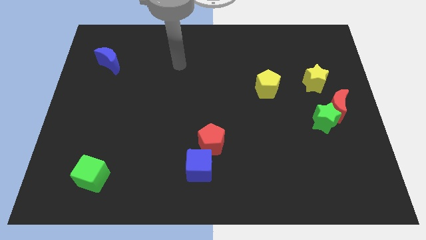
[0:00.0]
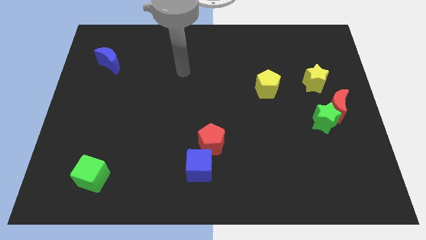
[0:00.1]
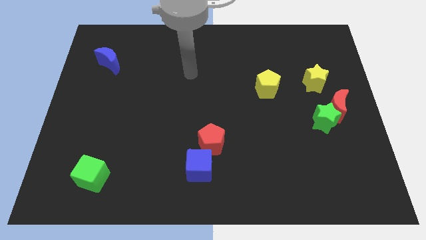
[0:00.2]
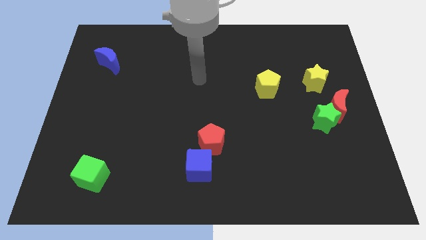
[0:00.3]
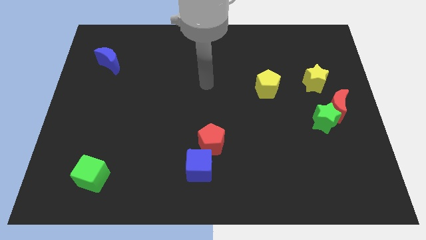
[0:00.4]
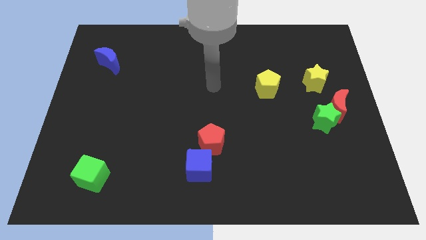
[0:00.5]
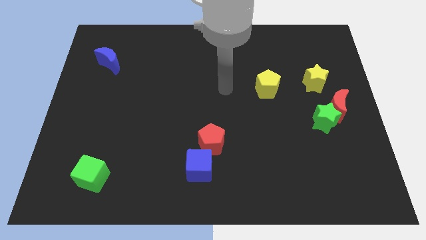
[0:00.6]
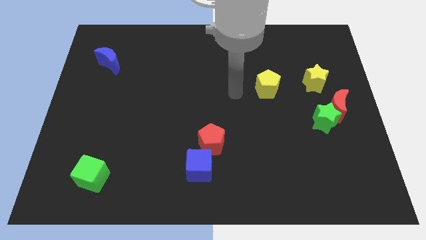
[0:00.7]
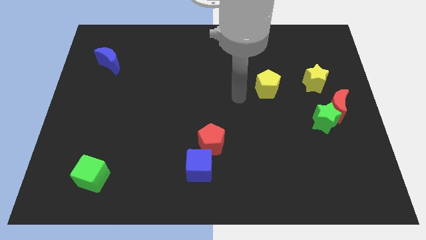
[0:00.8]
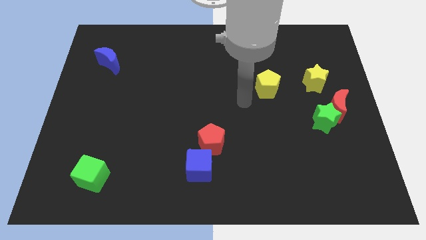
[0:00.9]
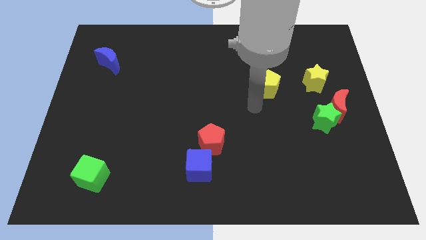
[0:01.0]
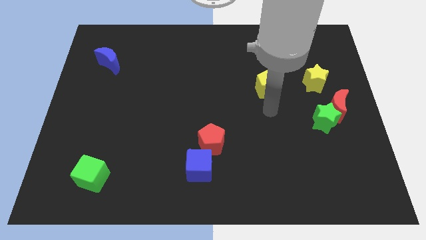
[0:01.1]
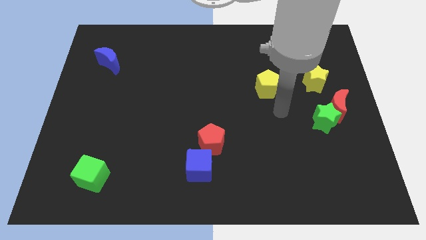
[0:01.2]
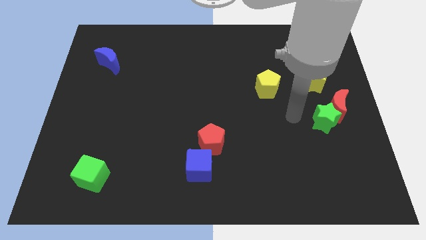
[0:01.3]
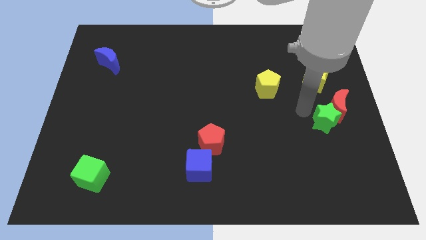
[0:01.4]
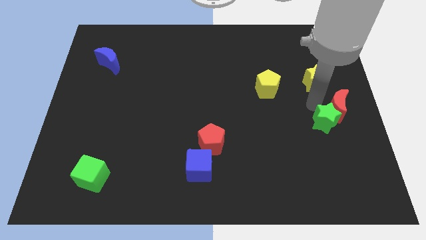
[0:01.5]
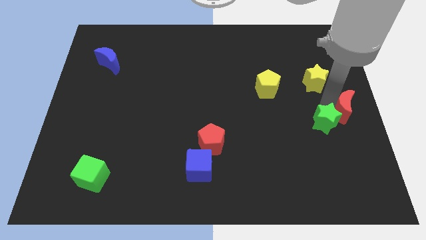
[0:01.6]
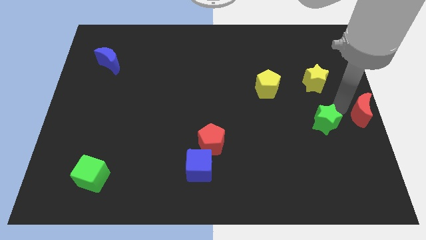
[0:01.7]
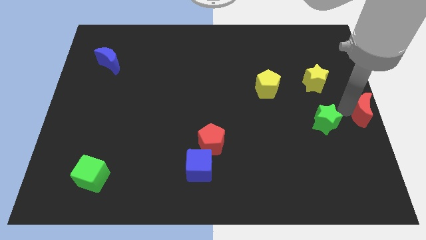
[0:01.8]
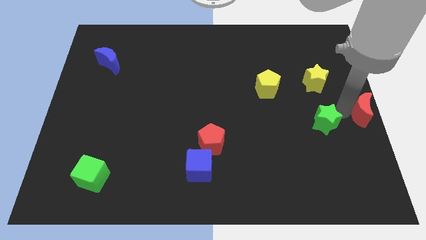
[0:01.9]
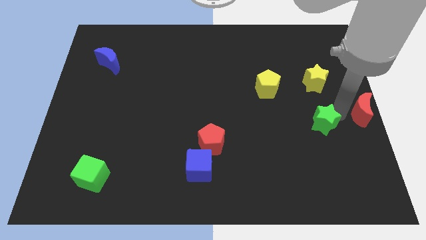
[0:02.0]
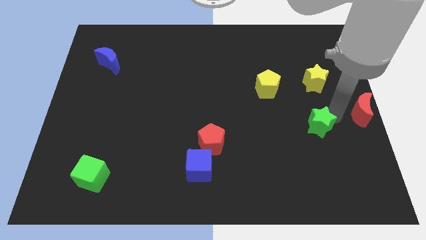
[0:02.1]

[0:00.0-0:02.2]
separate the green star from the red moon

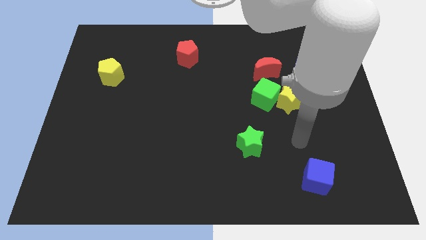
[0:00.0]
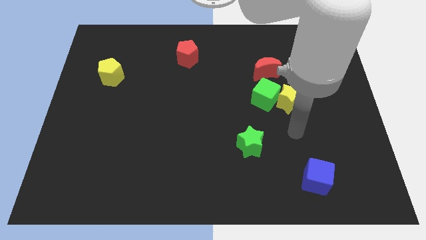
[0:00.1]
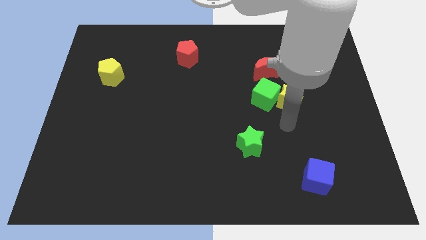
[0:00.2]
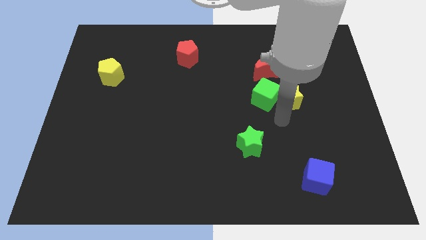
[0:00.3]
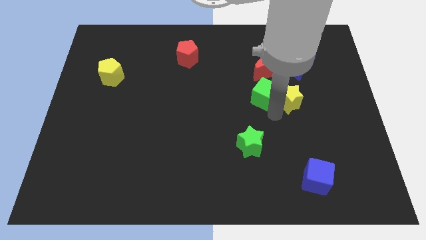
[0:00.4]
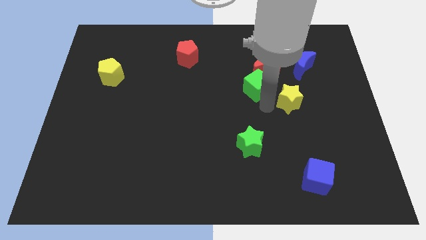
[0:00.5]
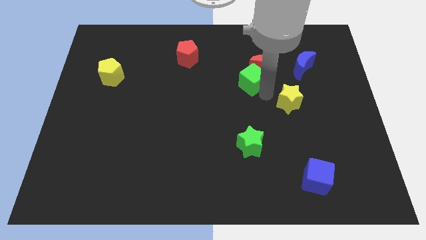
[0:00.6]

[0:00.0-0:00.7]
pull the yellow star apart from the green cube

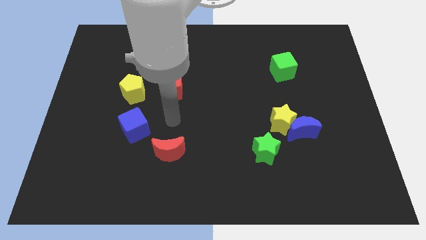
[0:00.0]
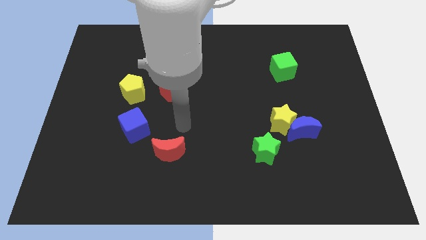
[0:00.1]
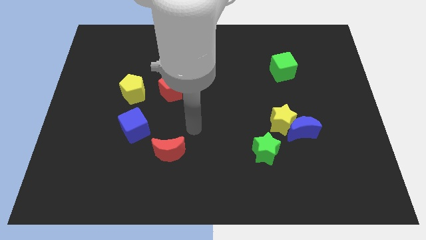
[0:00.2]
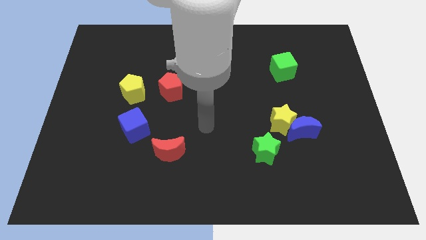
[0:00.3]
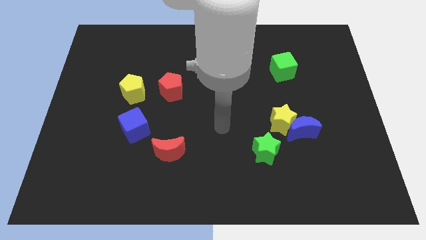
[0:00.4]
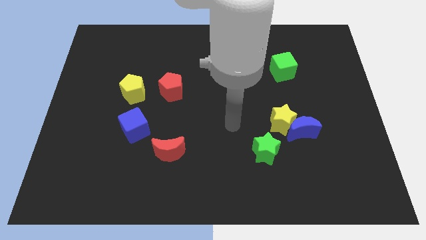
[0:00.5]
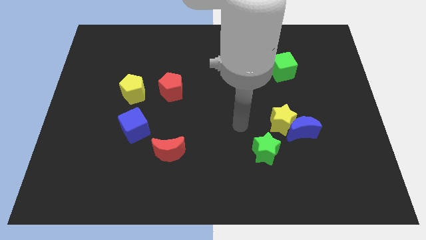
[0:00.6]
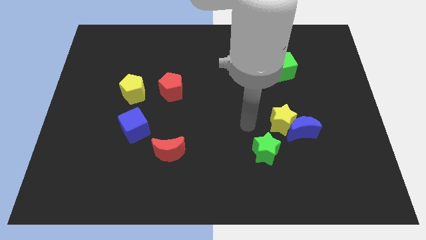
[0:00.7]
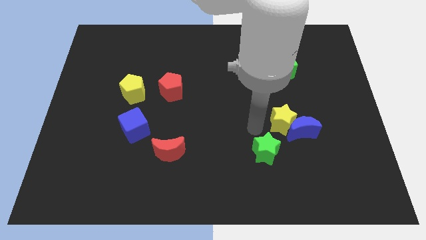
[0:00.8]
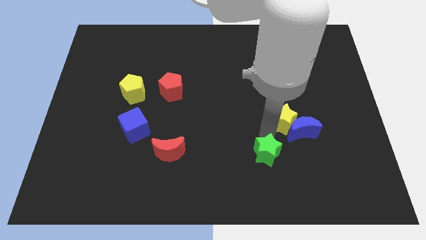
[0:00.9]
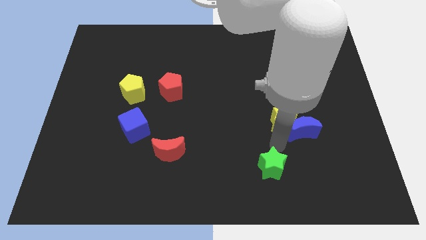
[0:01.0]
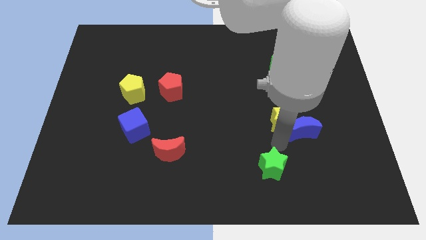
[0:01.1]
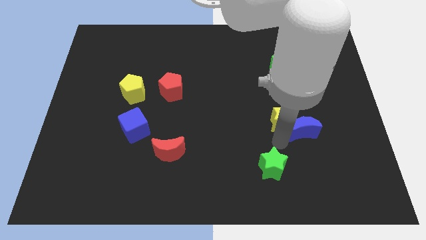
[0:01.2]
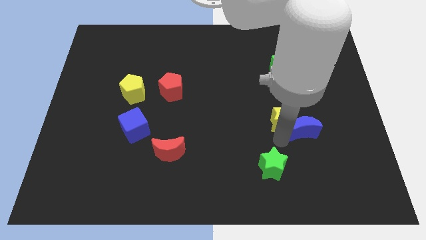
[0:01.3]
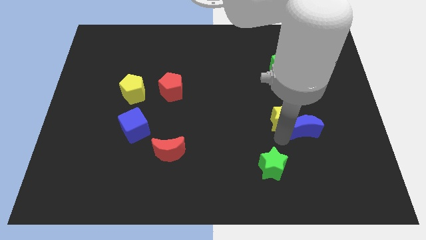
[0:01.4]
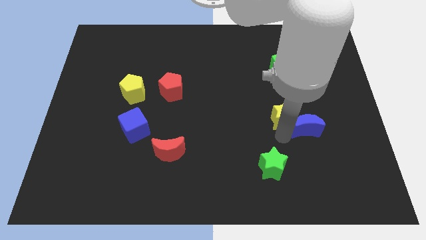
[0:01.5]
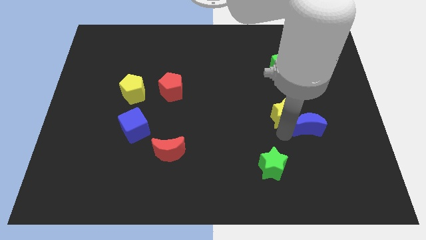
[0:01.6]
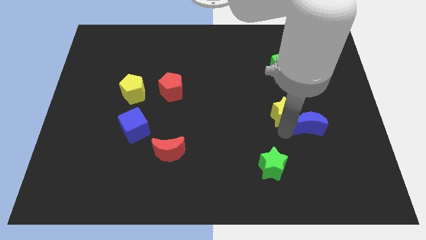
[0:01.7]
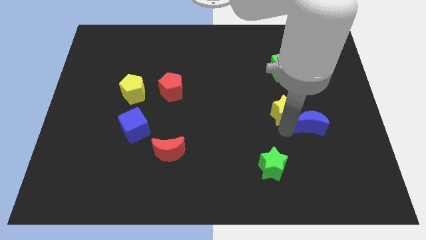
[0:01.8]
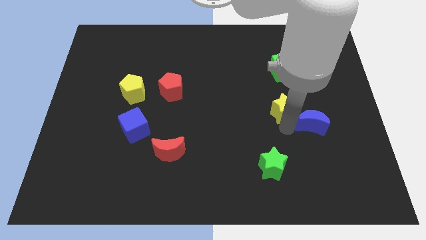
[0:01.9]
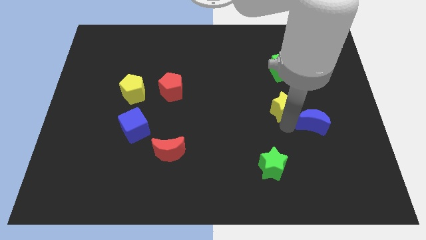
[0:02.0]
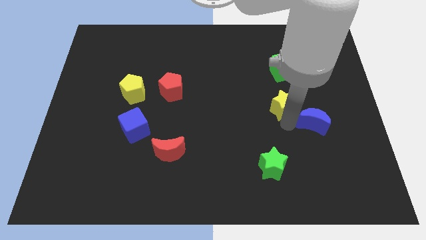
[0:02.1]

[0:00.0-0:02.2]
move the yellow star away from the blue moon and green star

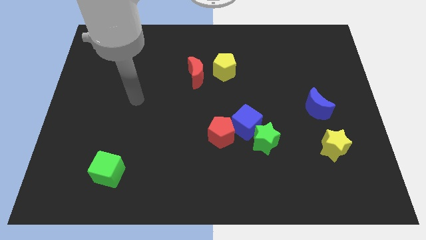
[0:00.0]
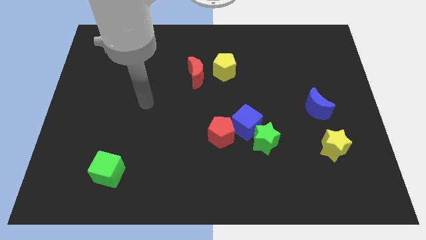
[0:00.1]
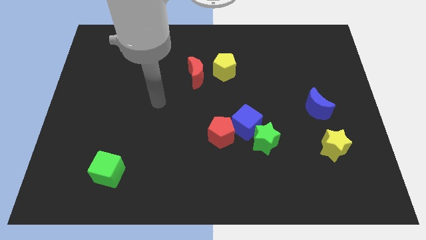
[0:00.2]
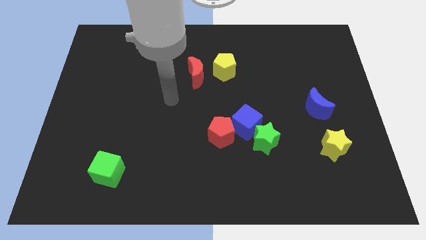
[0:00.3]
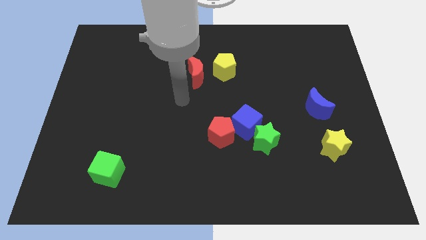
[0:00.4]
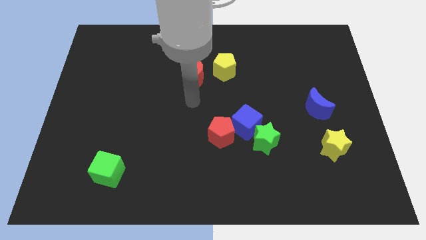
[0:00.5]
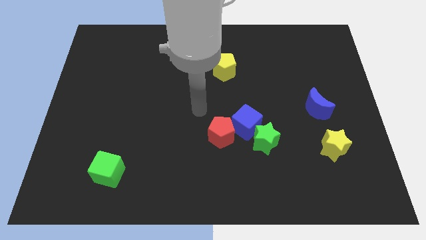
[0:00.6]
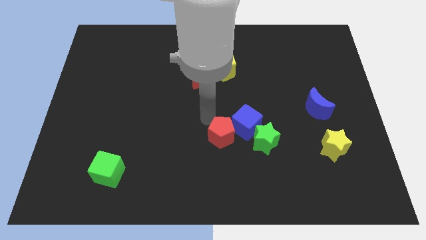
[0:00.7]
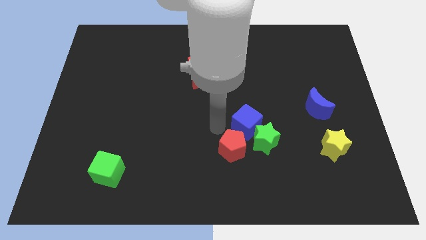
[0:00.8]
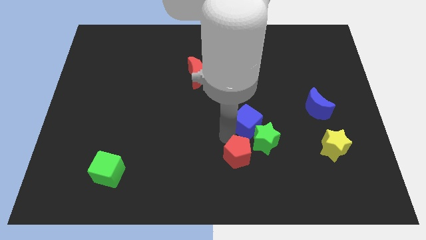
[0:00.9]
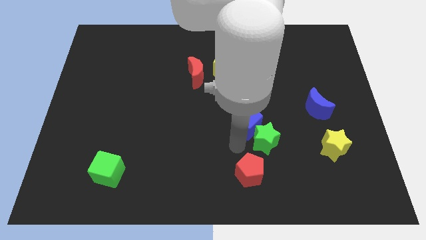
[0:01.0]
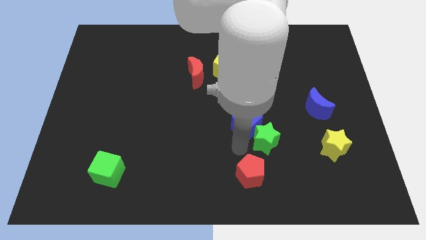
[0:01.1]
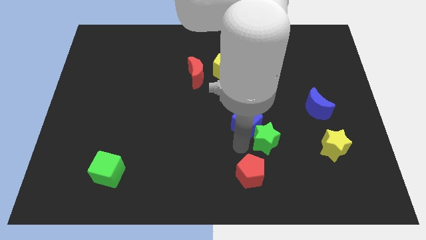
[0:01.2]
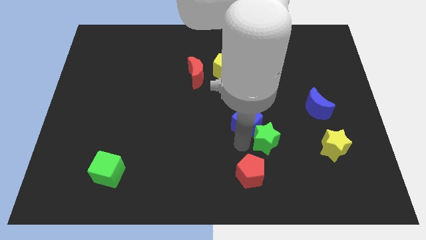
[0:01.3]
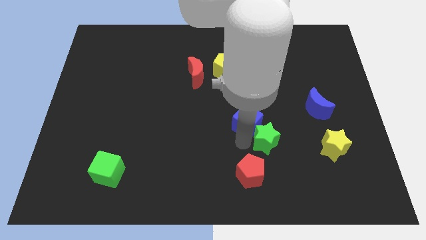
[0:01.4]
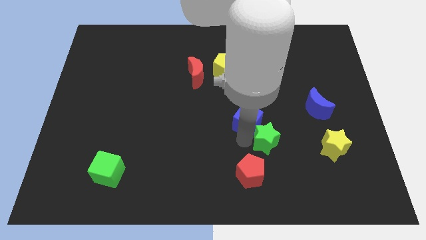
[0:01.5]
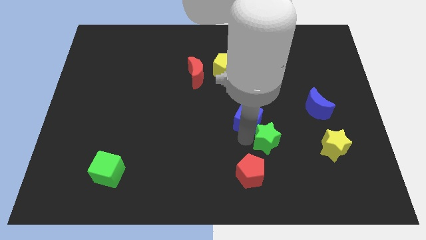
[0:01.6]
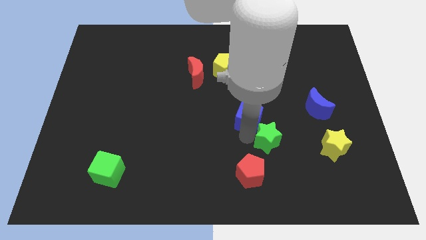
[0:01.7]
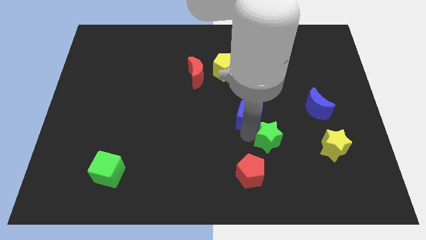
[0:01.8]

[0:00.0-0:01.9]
move the blue cube away from the green star and red pentagon

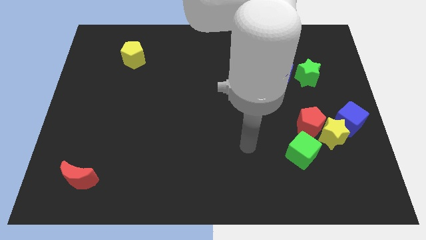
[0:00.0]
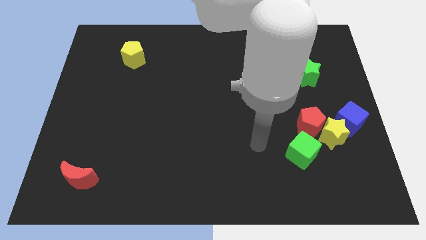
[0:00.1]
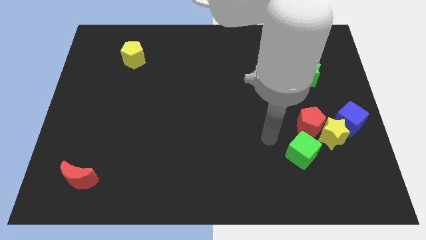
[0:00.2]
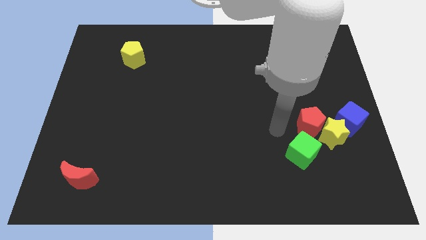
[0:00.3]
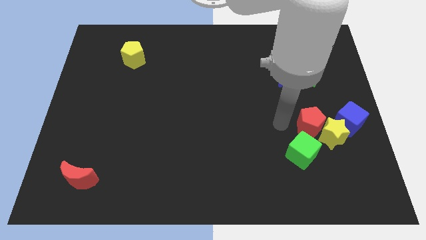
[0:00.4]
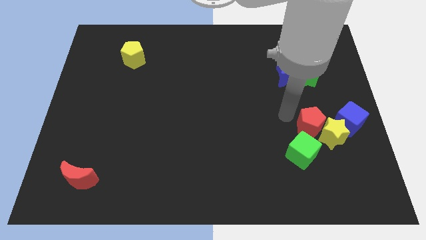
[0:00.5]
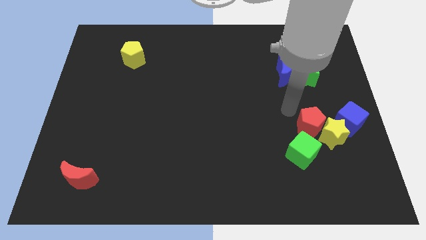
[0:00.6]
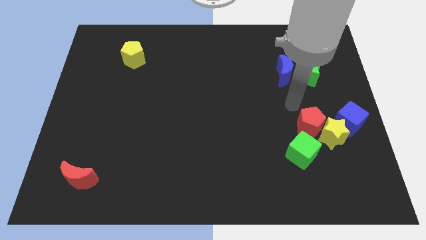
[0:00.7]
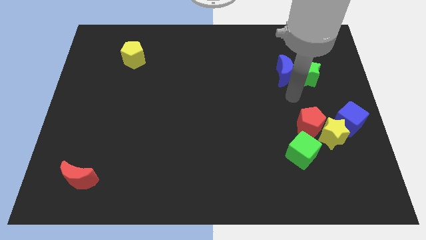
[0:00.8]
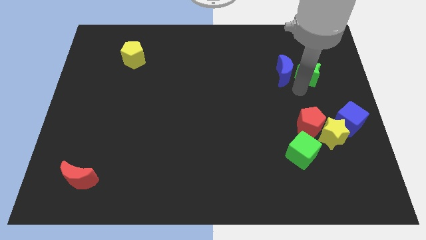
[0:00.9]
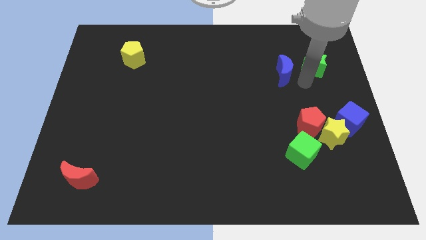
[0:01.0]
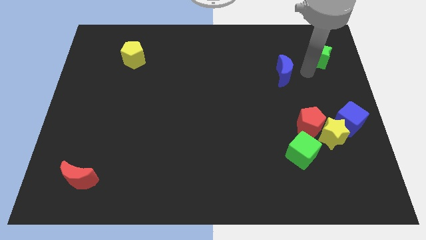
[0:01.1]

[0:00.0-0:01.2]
separate the blue moon from the green star

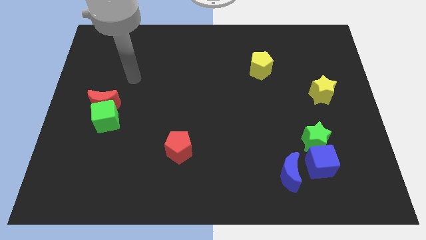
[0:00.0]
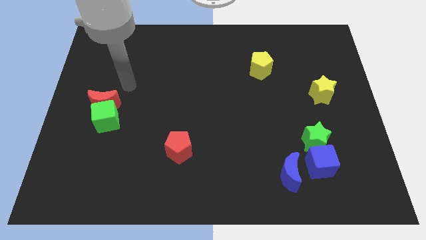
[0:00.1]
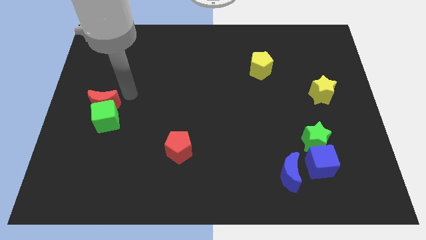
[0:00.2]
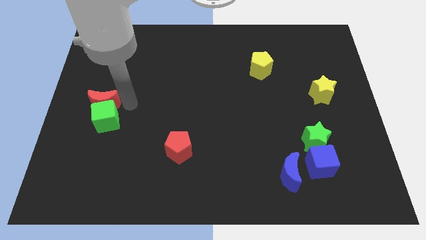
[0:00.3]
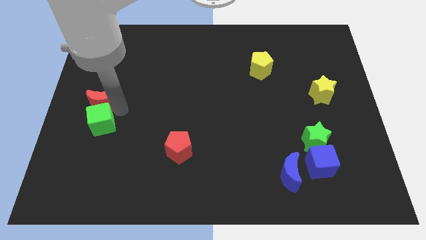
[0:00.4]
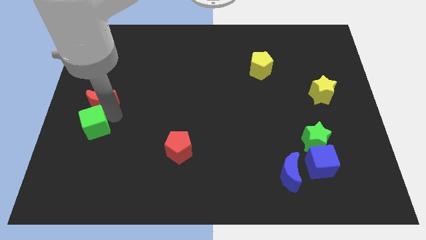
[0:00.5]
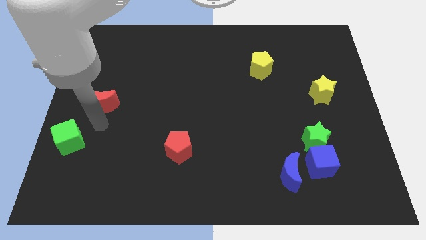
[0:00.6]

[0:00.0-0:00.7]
separate the red moon from the green cube

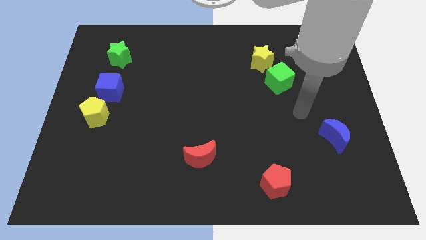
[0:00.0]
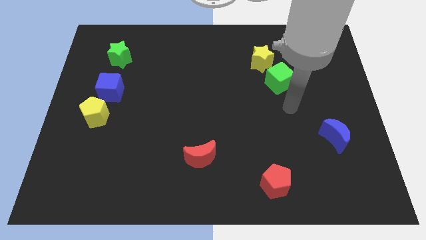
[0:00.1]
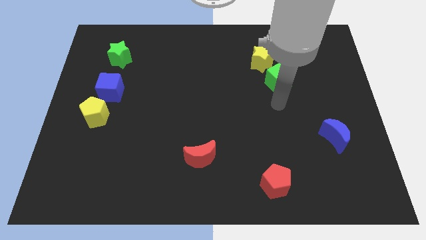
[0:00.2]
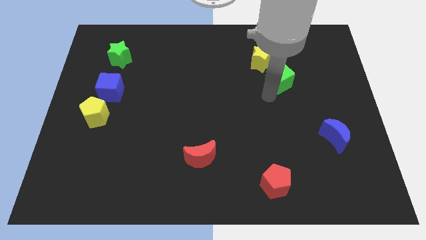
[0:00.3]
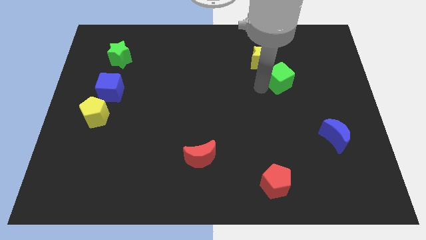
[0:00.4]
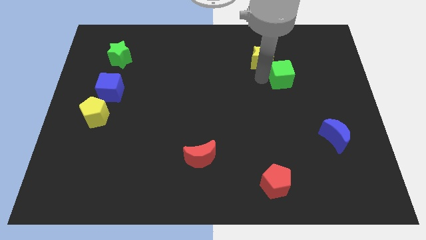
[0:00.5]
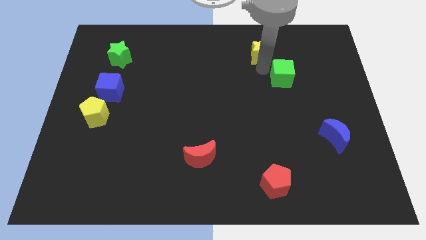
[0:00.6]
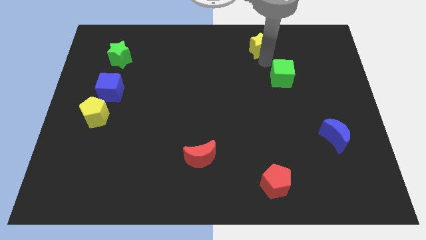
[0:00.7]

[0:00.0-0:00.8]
separate the green cube from the yellow star
